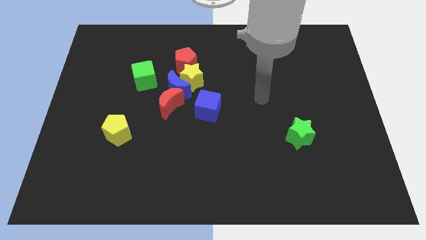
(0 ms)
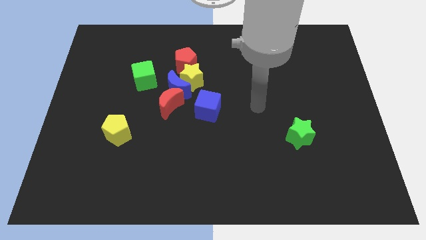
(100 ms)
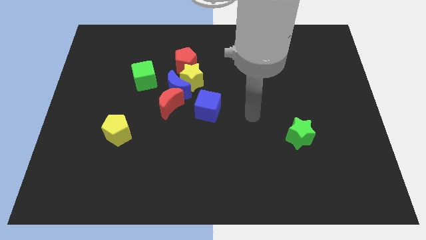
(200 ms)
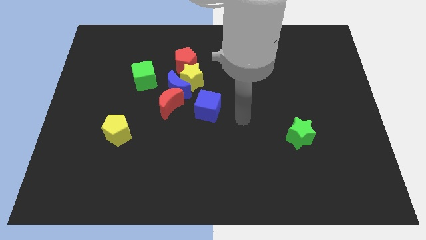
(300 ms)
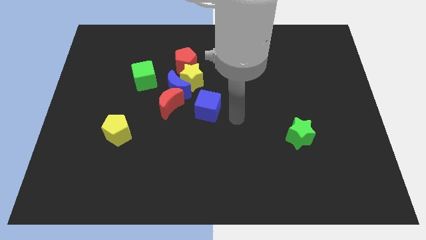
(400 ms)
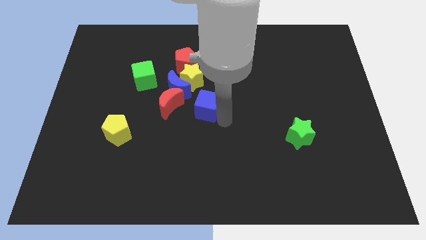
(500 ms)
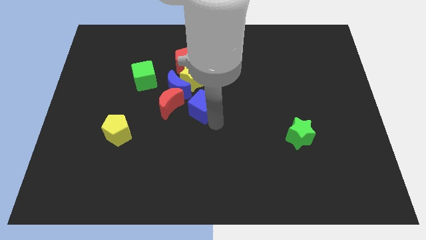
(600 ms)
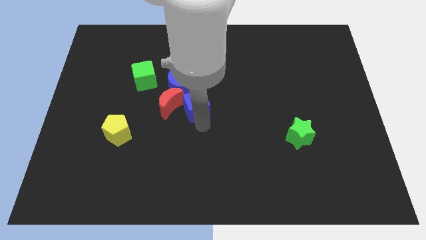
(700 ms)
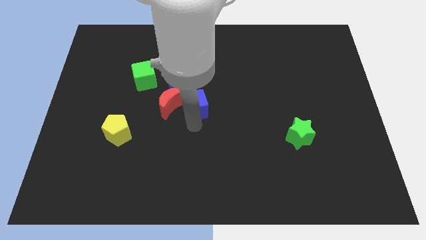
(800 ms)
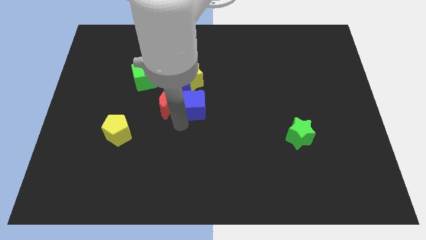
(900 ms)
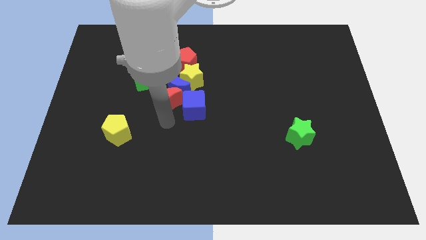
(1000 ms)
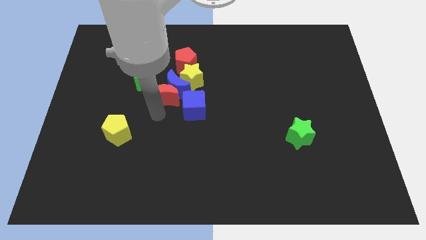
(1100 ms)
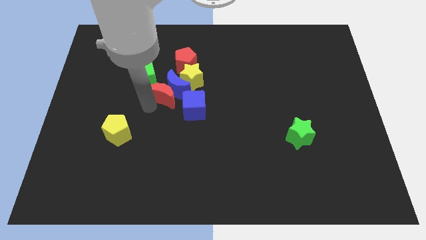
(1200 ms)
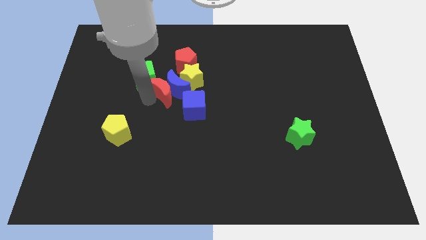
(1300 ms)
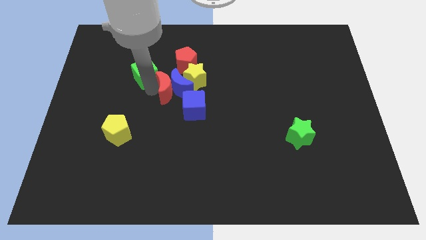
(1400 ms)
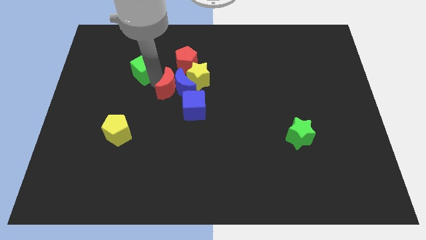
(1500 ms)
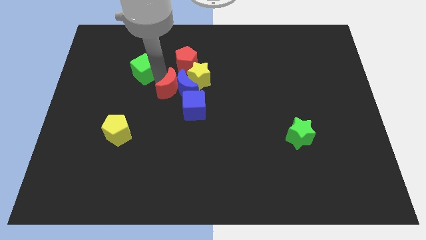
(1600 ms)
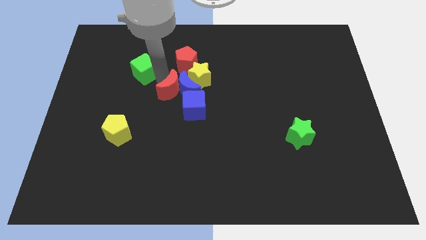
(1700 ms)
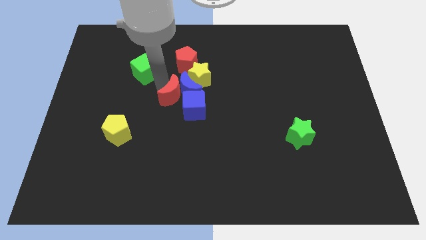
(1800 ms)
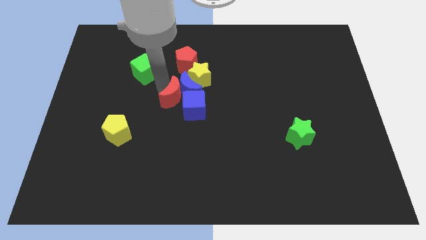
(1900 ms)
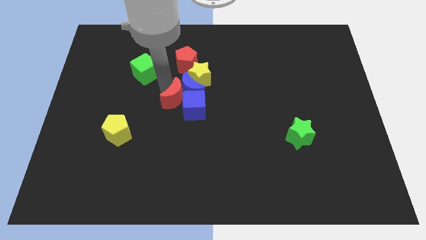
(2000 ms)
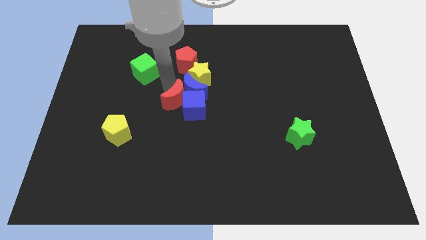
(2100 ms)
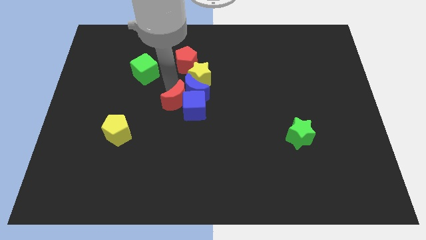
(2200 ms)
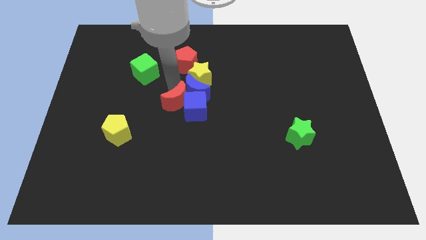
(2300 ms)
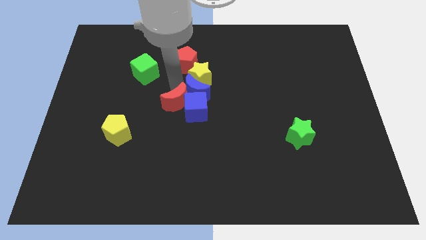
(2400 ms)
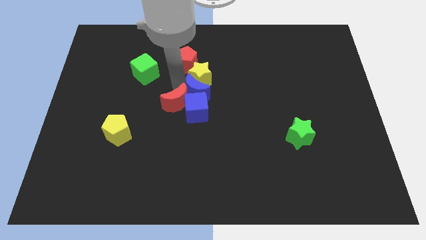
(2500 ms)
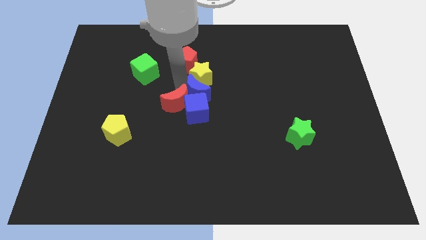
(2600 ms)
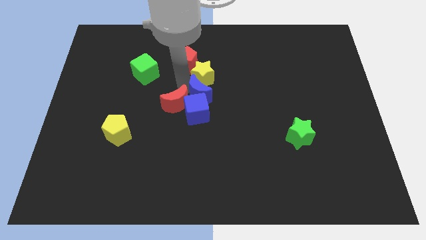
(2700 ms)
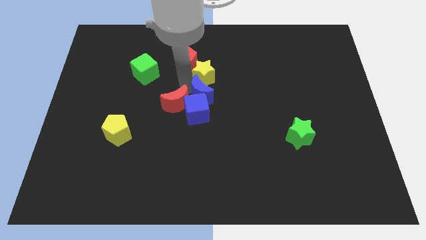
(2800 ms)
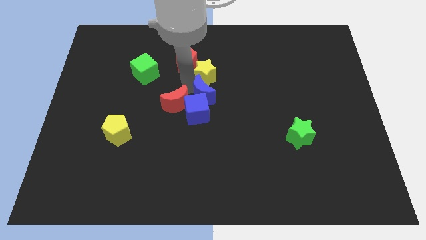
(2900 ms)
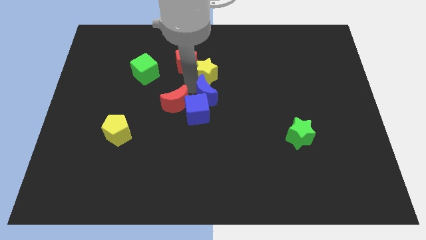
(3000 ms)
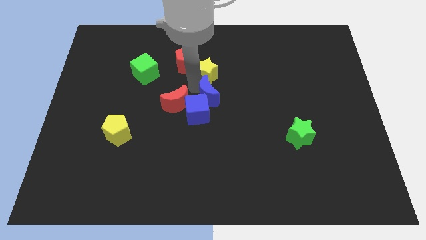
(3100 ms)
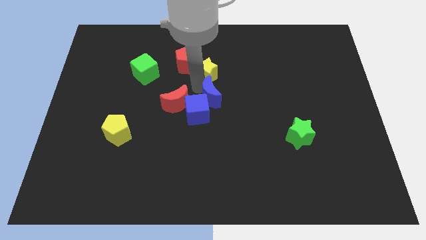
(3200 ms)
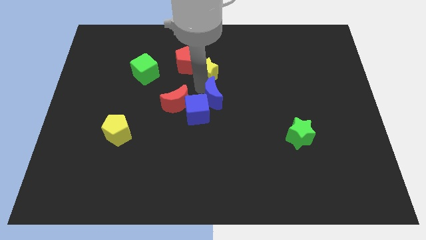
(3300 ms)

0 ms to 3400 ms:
move the blue moon a little downwards and right

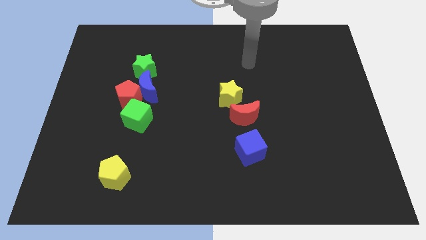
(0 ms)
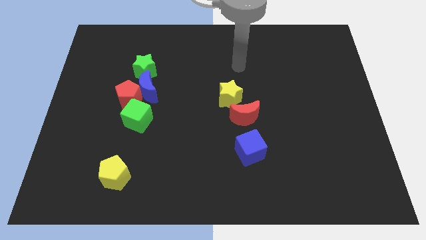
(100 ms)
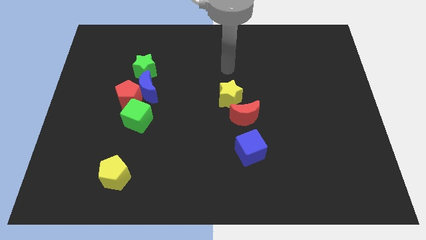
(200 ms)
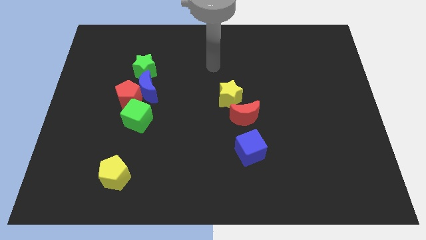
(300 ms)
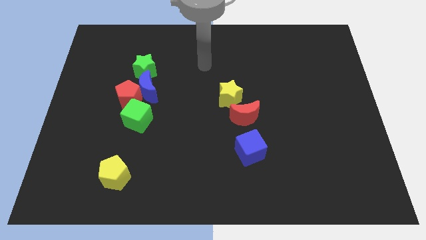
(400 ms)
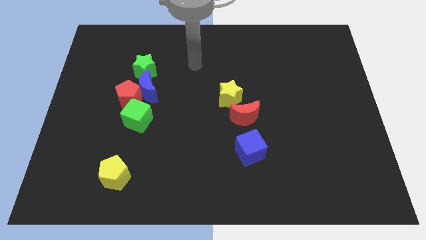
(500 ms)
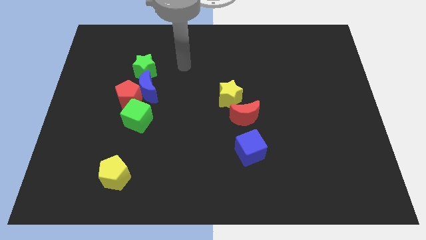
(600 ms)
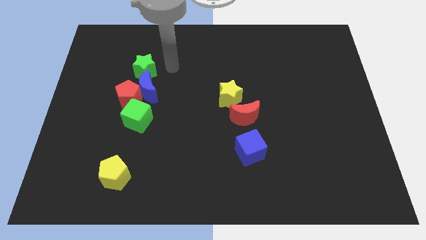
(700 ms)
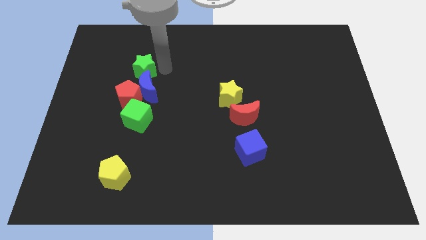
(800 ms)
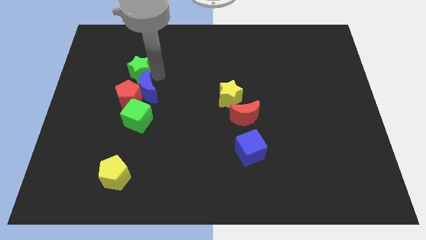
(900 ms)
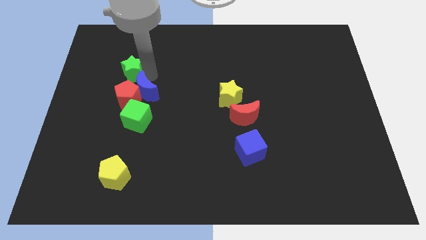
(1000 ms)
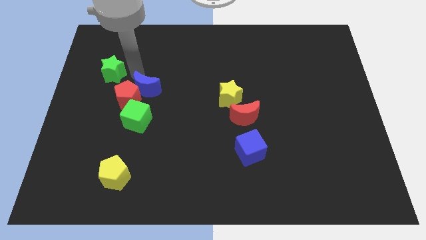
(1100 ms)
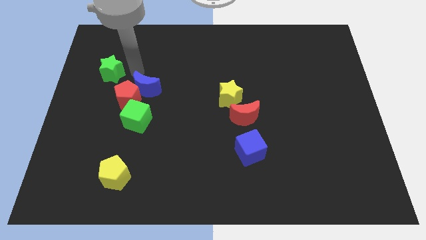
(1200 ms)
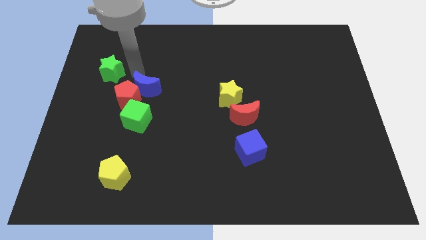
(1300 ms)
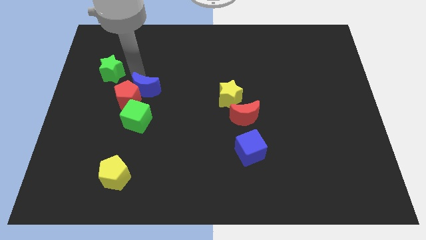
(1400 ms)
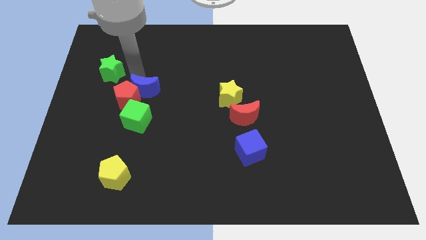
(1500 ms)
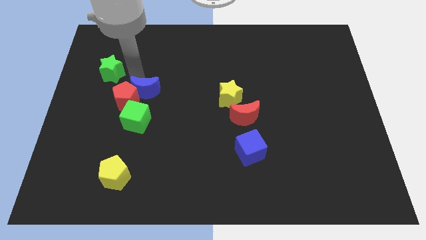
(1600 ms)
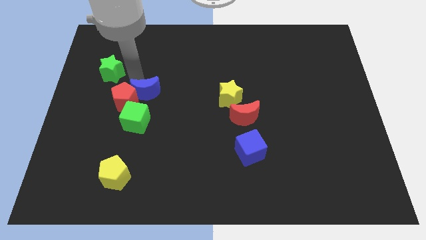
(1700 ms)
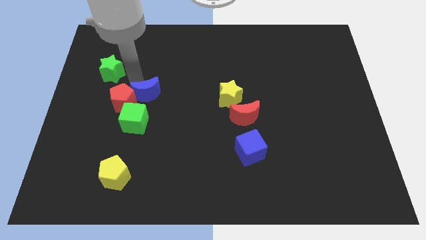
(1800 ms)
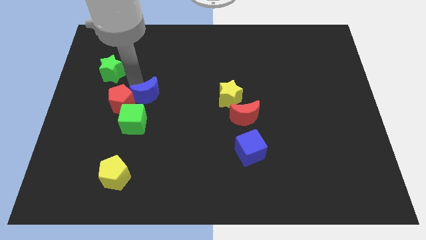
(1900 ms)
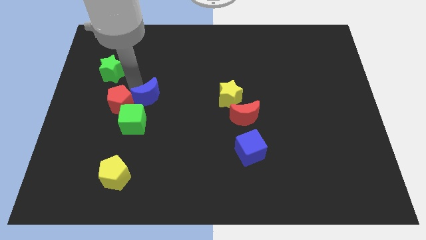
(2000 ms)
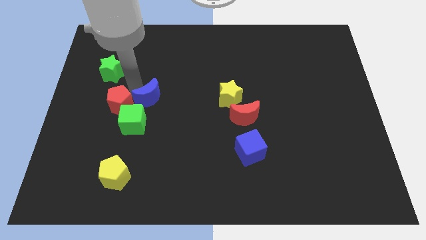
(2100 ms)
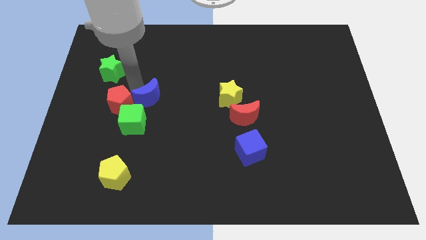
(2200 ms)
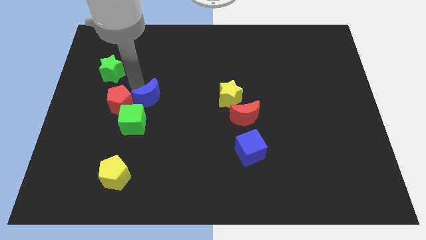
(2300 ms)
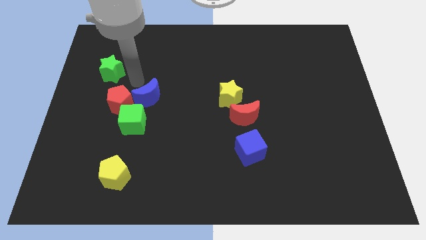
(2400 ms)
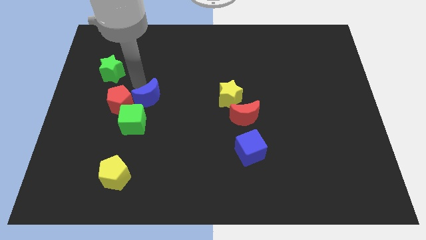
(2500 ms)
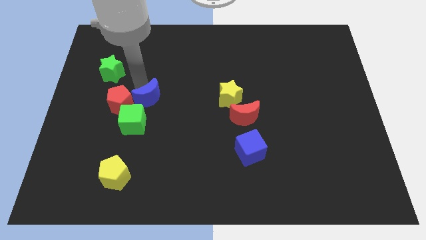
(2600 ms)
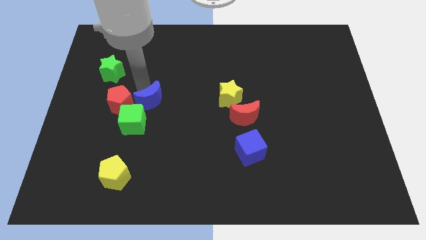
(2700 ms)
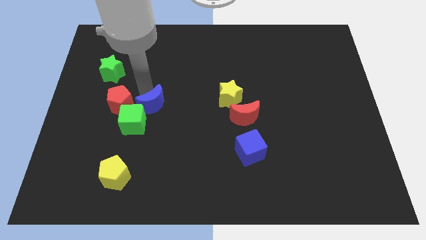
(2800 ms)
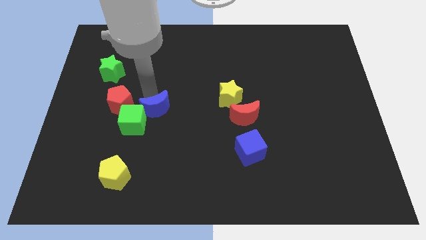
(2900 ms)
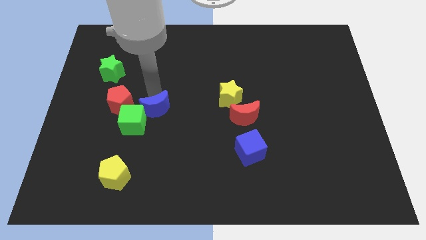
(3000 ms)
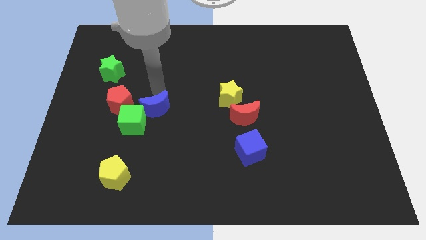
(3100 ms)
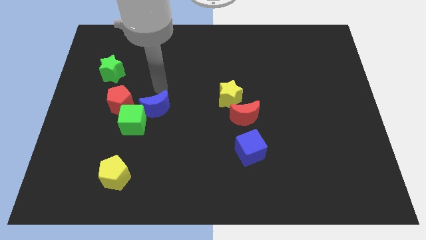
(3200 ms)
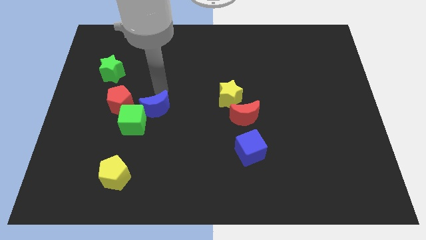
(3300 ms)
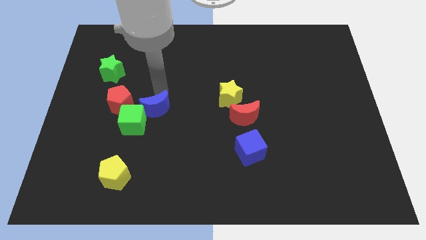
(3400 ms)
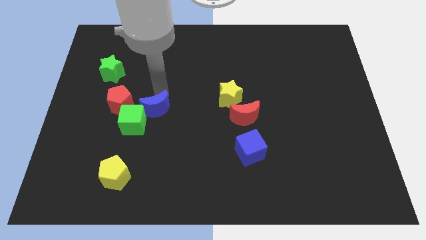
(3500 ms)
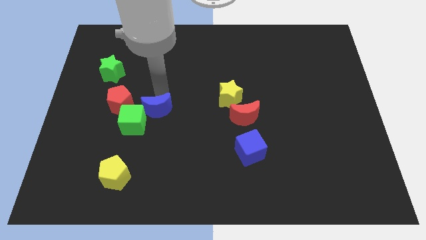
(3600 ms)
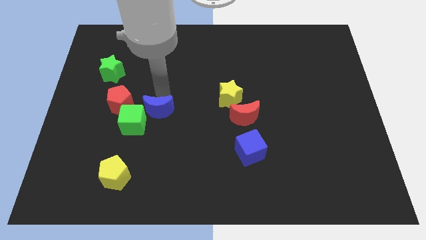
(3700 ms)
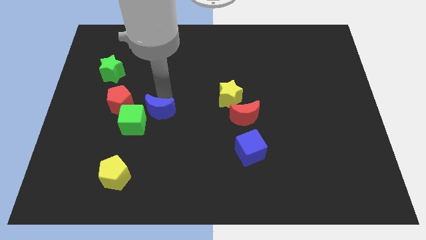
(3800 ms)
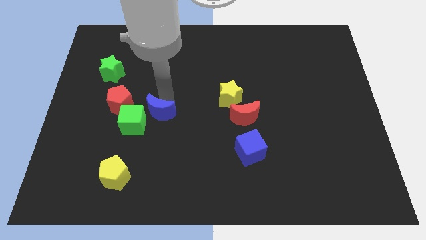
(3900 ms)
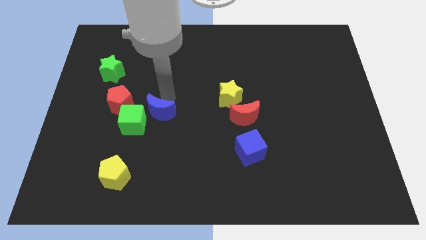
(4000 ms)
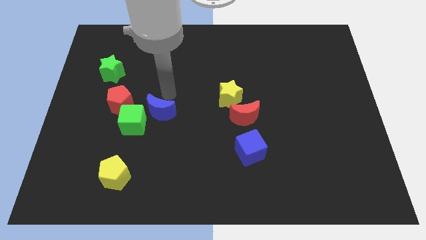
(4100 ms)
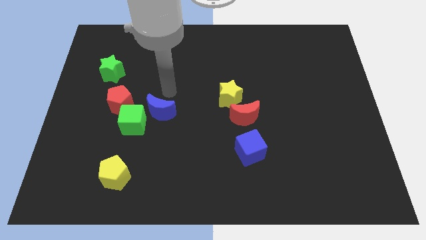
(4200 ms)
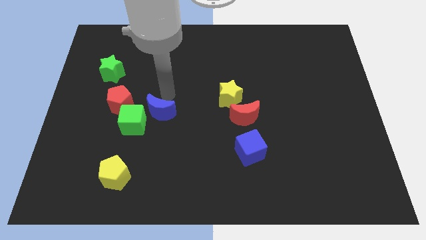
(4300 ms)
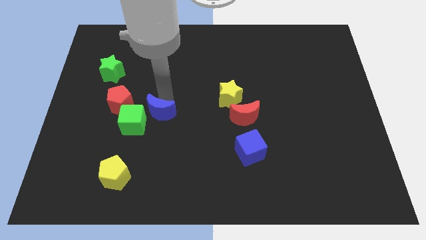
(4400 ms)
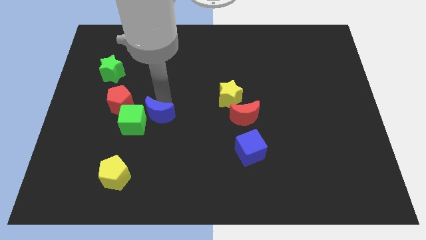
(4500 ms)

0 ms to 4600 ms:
push the blue moon slightly downwards

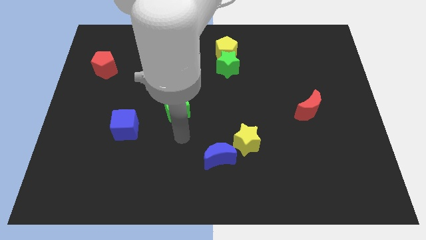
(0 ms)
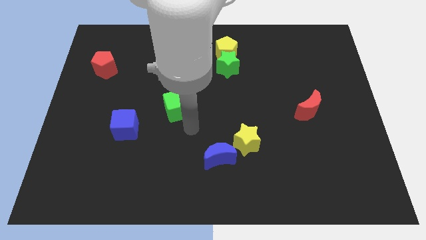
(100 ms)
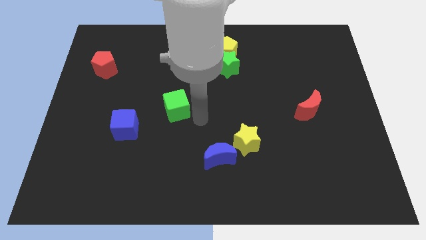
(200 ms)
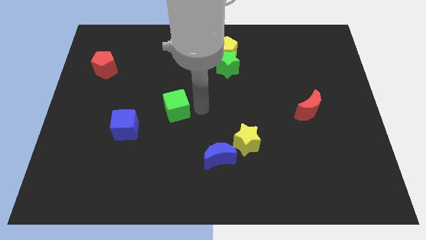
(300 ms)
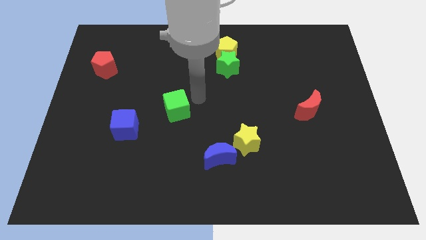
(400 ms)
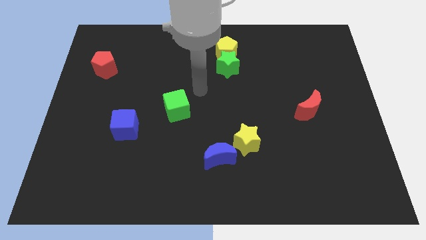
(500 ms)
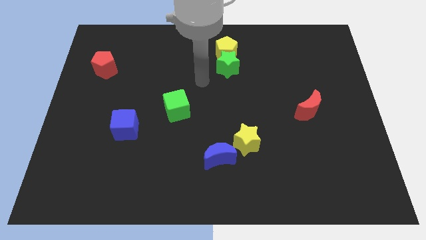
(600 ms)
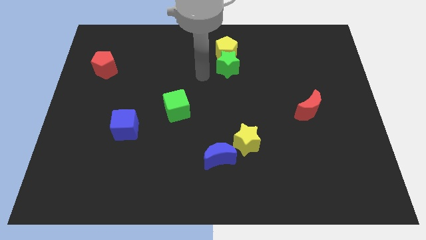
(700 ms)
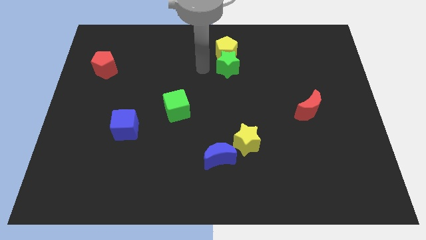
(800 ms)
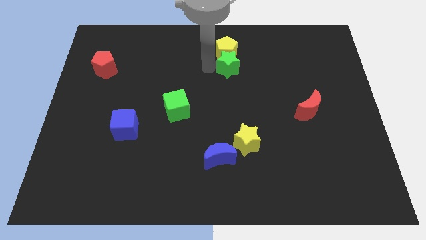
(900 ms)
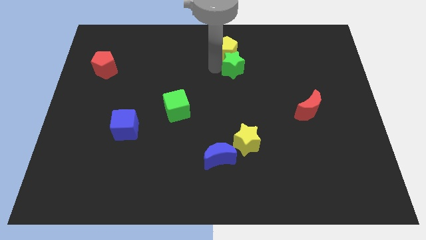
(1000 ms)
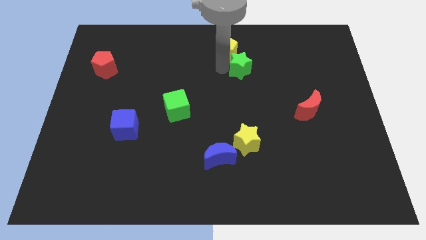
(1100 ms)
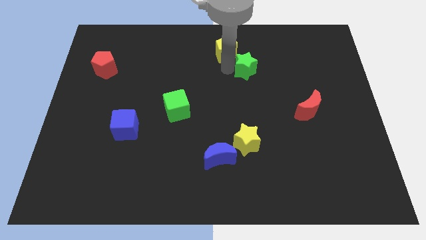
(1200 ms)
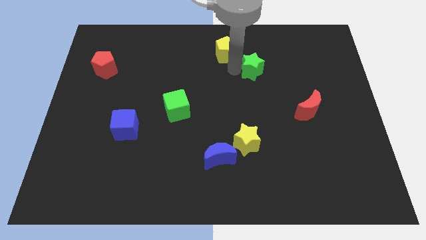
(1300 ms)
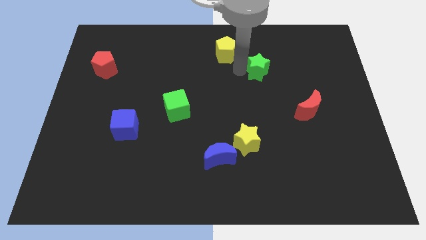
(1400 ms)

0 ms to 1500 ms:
move the green star a bit right
